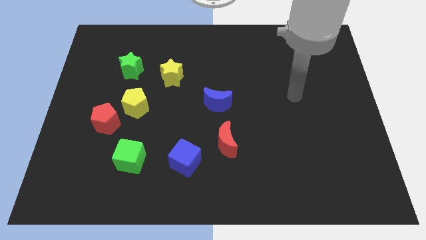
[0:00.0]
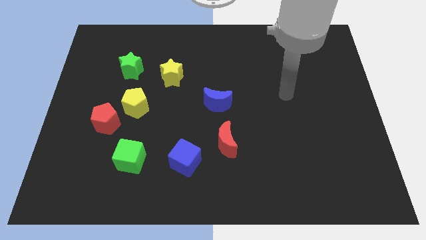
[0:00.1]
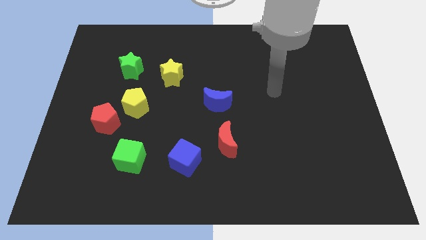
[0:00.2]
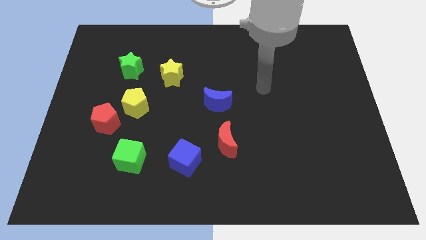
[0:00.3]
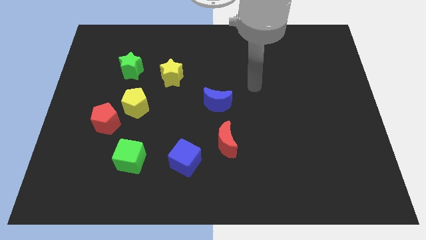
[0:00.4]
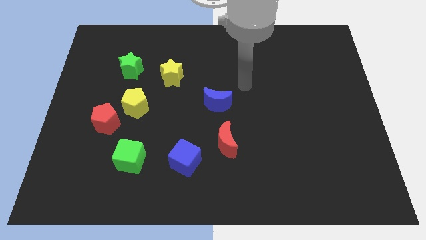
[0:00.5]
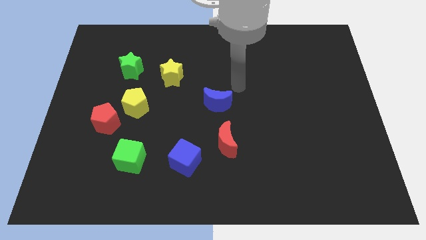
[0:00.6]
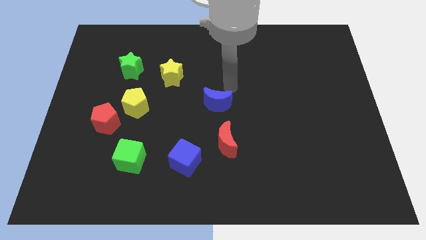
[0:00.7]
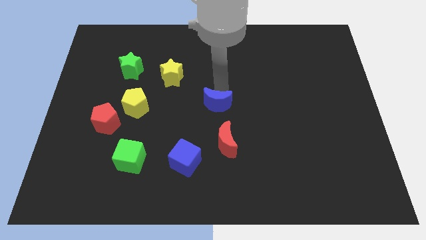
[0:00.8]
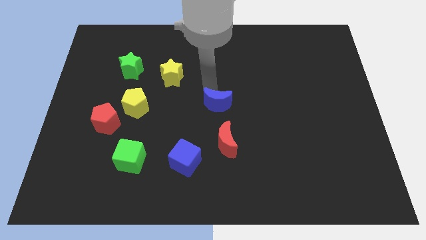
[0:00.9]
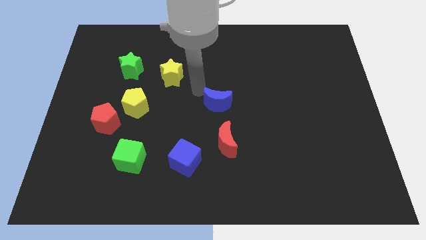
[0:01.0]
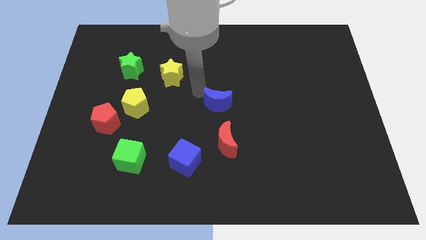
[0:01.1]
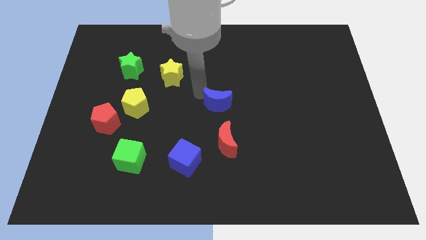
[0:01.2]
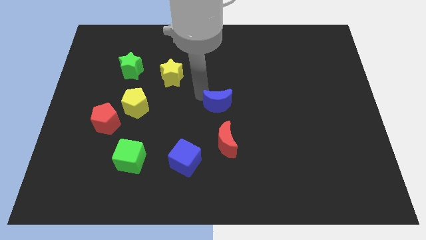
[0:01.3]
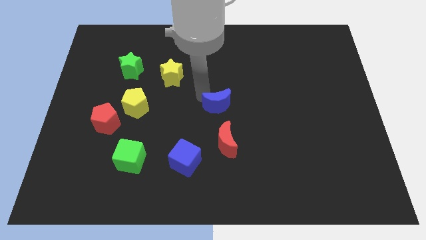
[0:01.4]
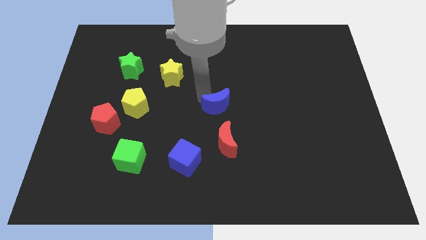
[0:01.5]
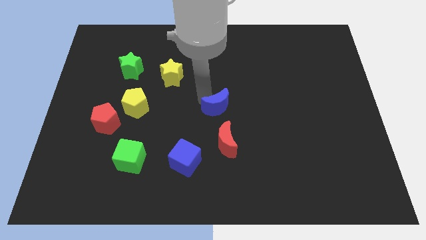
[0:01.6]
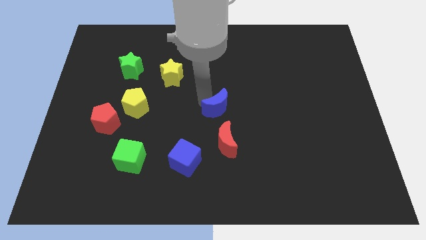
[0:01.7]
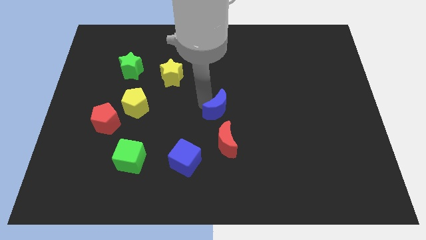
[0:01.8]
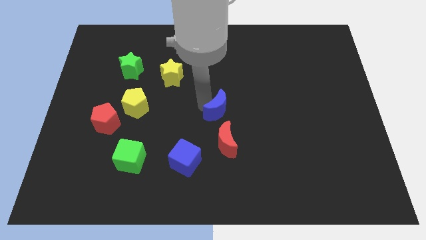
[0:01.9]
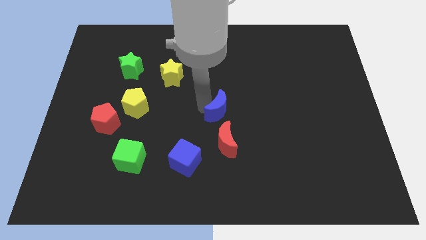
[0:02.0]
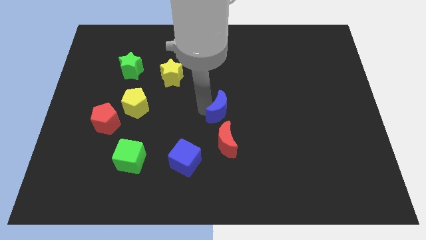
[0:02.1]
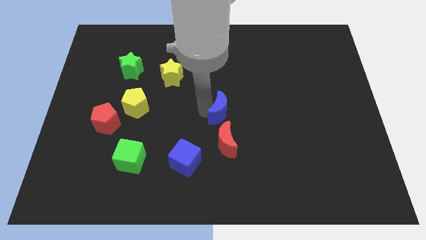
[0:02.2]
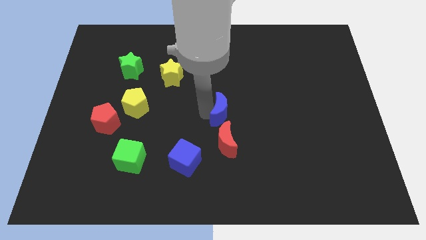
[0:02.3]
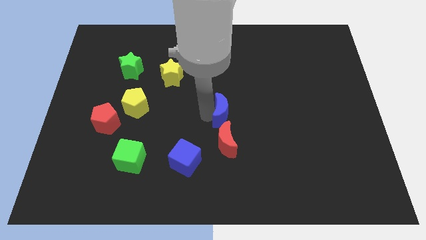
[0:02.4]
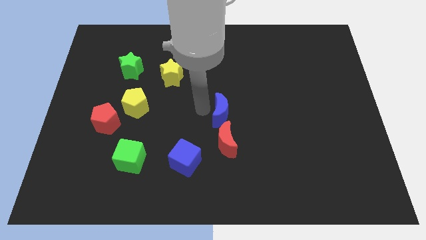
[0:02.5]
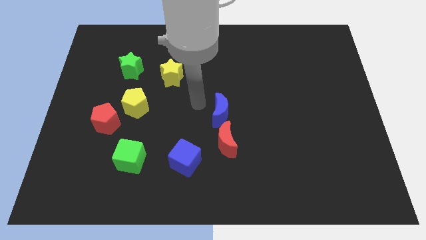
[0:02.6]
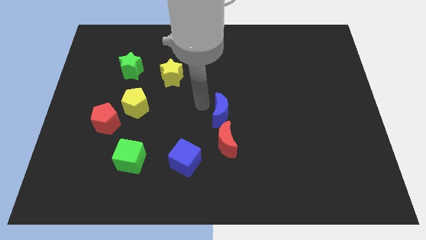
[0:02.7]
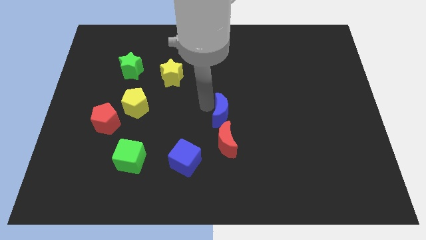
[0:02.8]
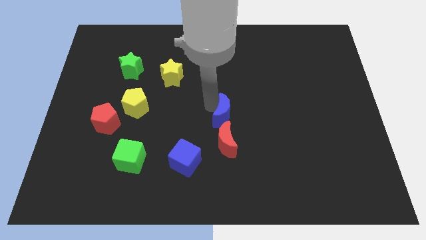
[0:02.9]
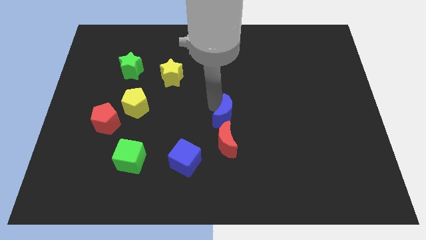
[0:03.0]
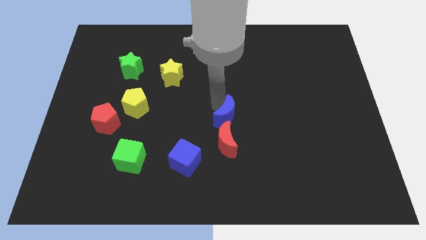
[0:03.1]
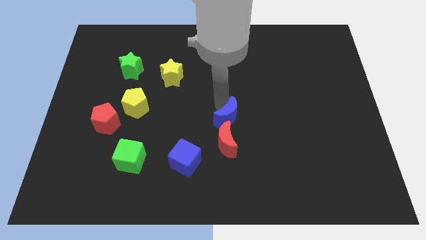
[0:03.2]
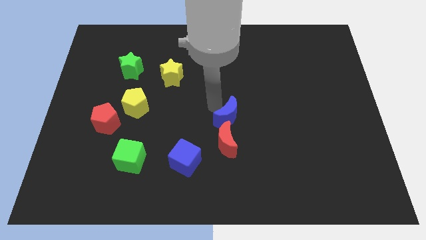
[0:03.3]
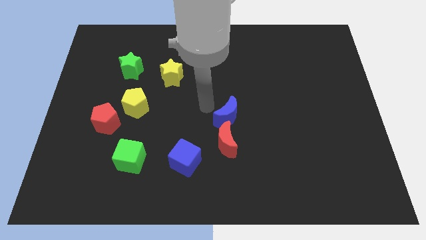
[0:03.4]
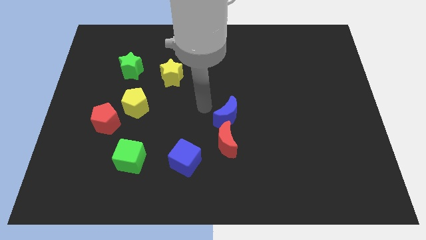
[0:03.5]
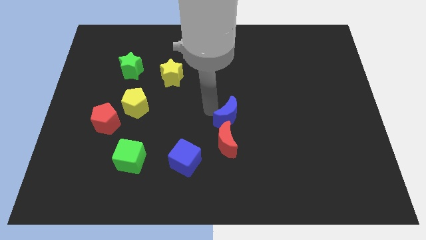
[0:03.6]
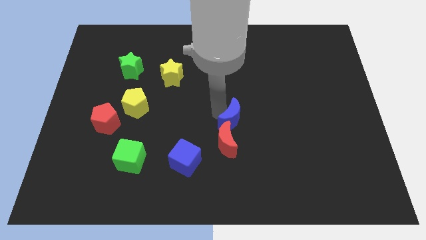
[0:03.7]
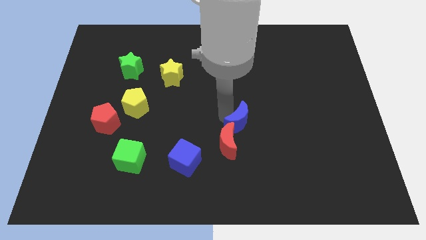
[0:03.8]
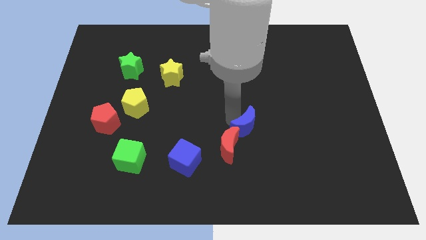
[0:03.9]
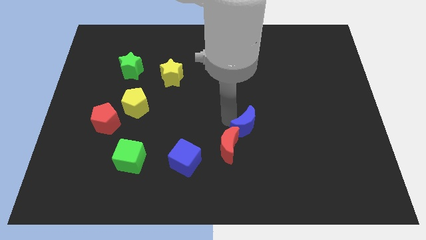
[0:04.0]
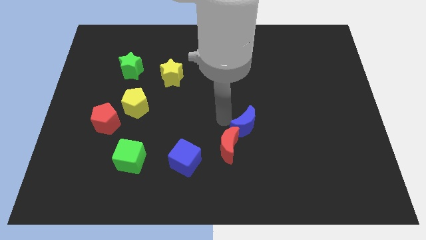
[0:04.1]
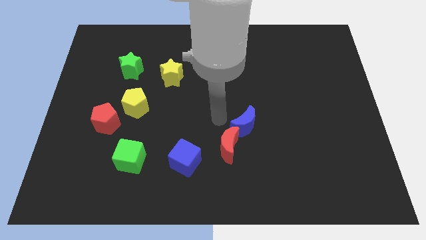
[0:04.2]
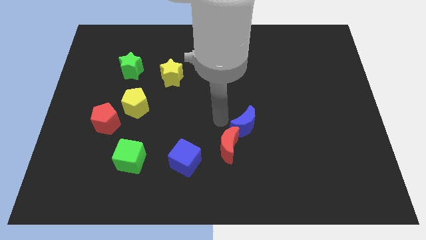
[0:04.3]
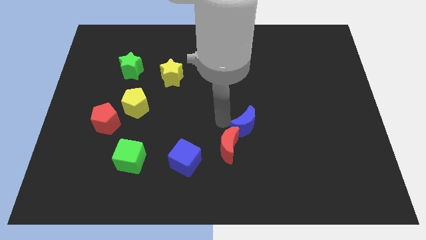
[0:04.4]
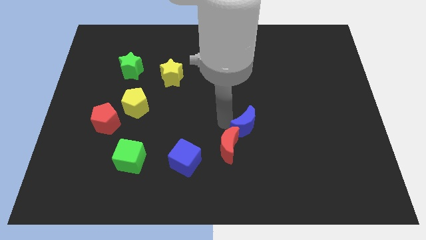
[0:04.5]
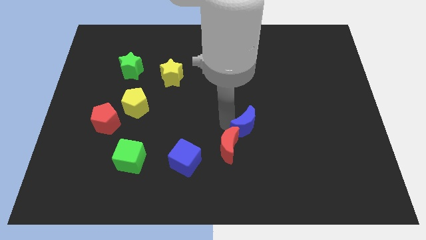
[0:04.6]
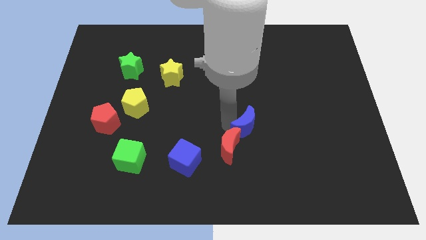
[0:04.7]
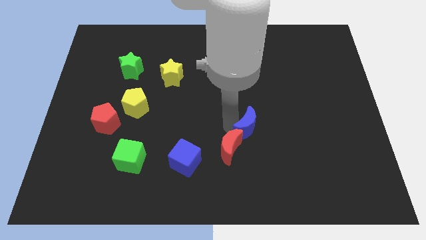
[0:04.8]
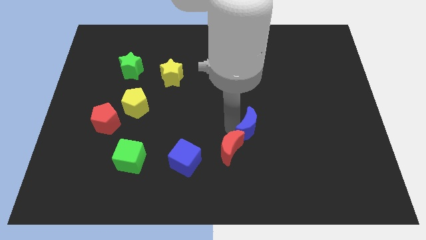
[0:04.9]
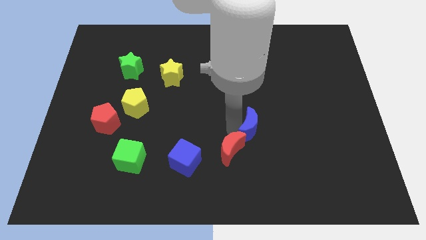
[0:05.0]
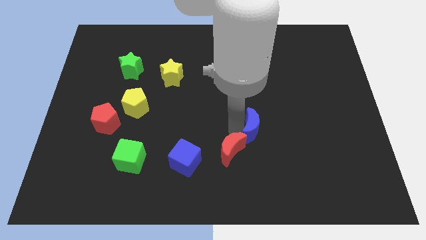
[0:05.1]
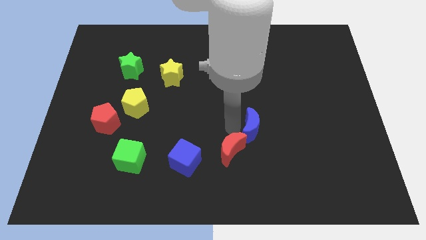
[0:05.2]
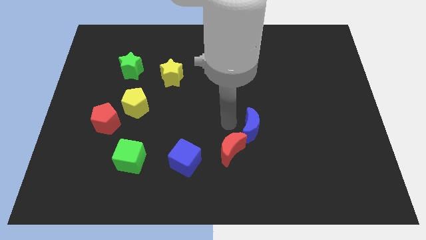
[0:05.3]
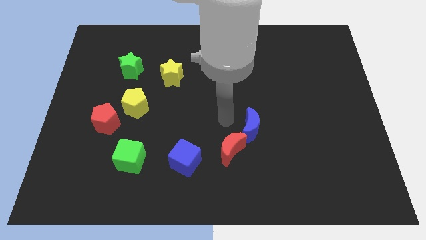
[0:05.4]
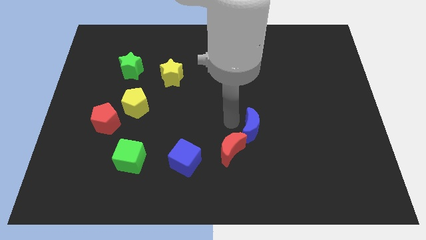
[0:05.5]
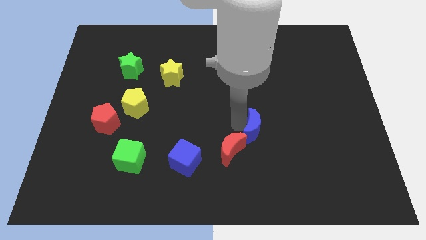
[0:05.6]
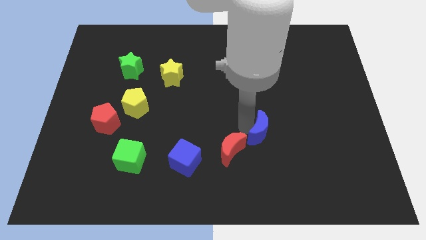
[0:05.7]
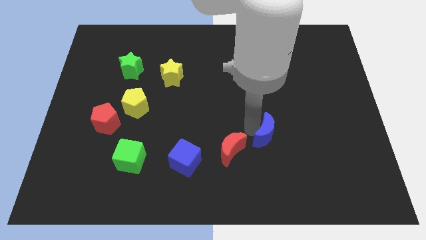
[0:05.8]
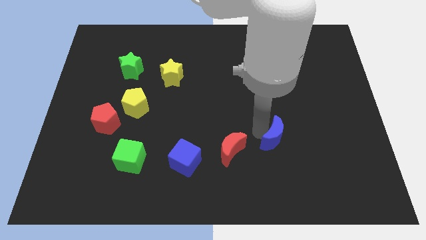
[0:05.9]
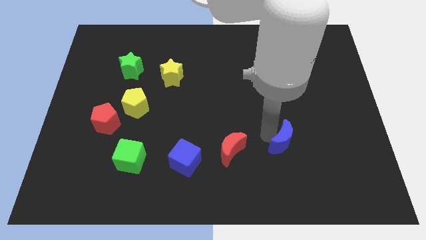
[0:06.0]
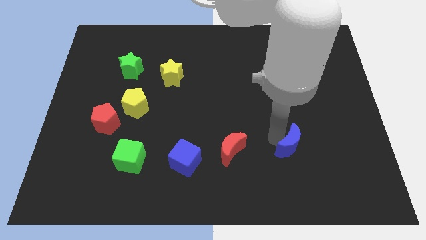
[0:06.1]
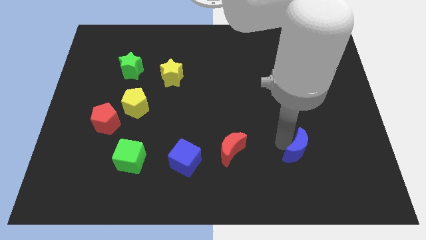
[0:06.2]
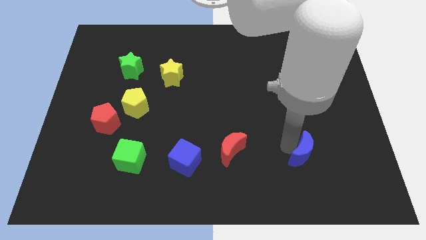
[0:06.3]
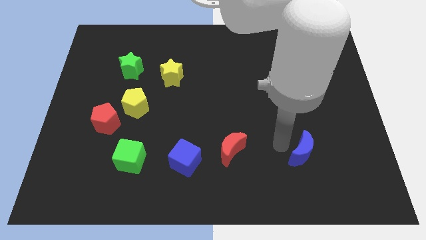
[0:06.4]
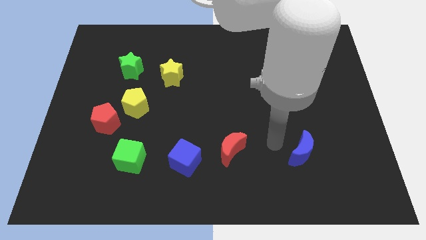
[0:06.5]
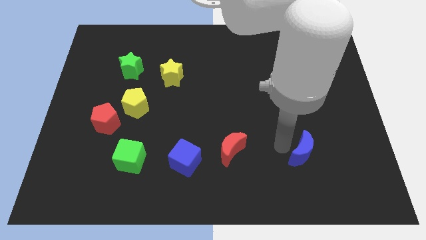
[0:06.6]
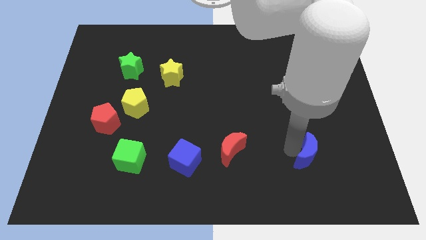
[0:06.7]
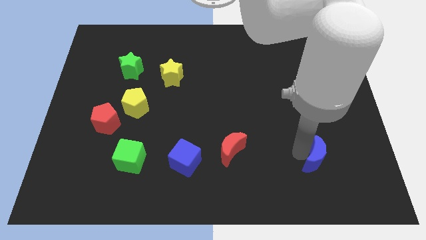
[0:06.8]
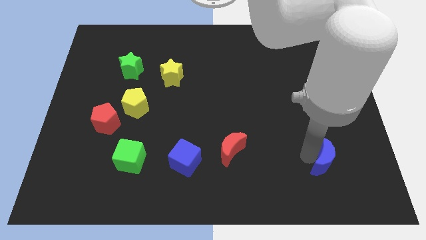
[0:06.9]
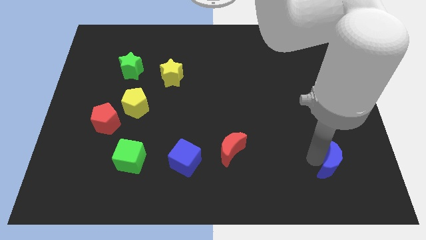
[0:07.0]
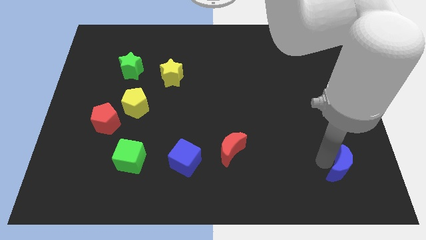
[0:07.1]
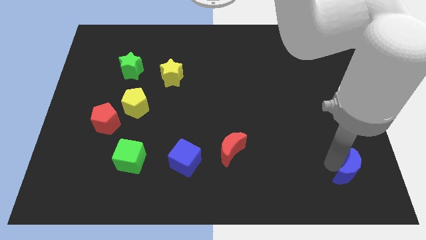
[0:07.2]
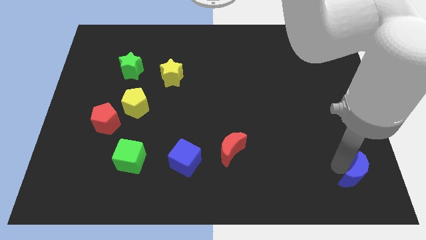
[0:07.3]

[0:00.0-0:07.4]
put the blue moon to the bottom right
